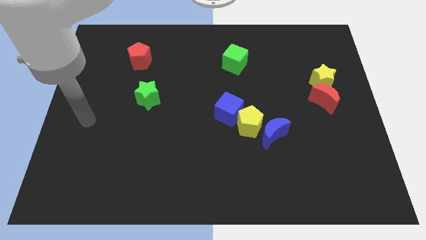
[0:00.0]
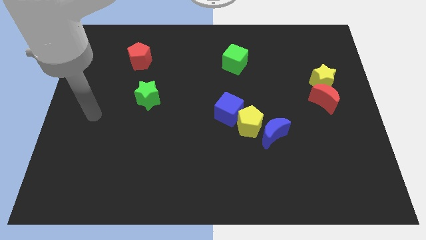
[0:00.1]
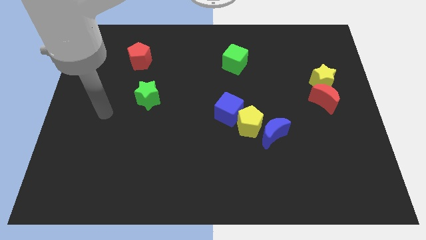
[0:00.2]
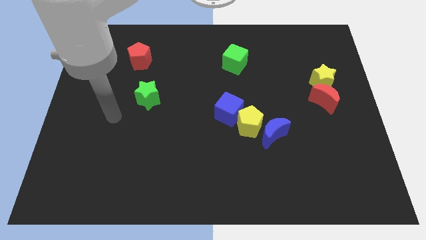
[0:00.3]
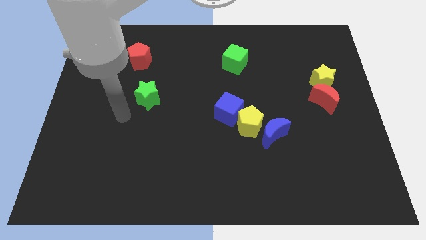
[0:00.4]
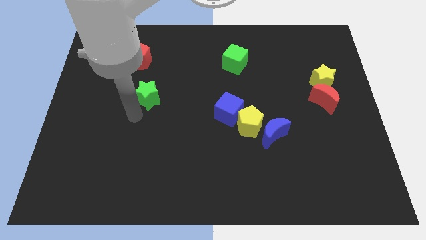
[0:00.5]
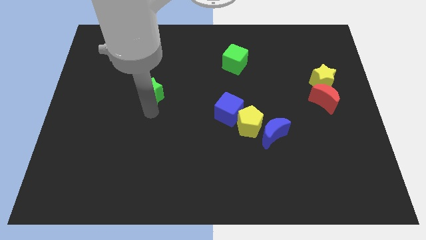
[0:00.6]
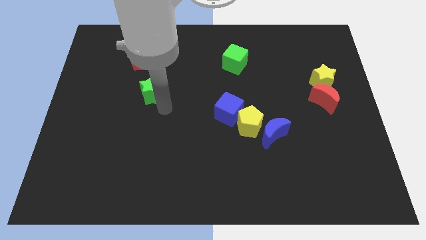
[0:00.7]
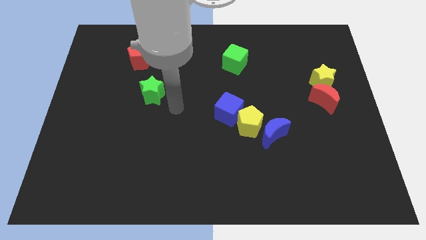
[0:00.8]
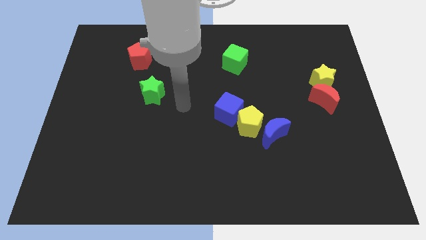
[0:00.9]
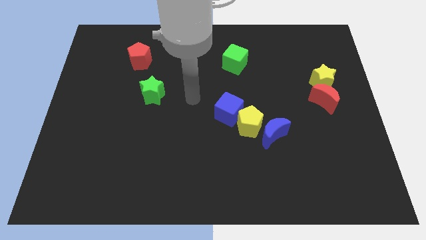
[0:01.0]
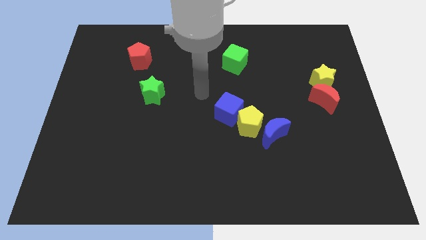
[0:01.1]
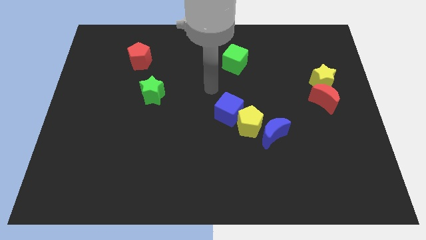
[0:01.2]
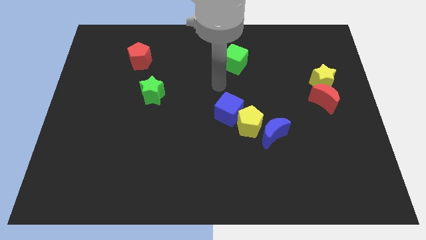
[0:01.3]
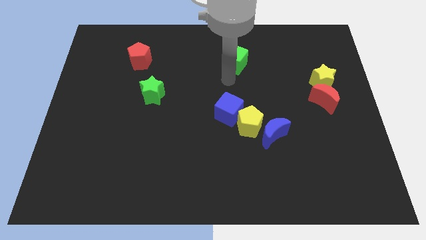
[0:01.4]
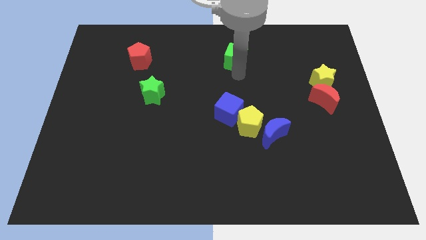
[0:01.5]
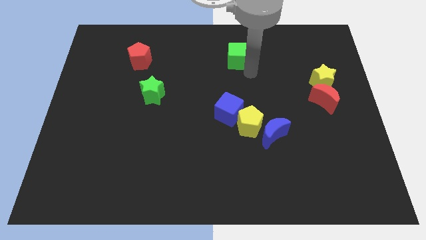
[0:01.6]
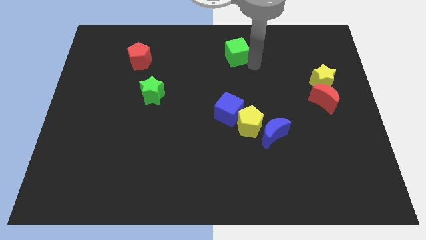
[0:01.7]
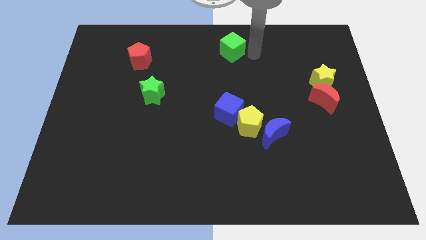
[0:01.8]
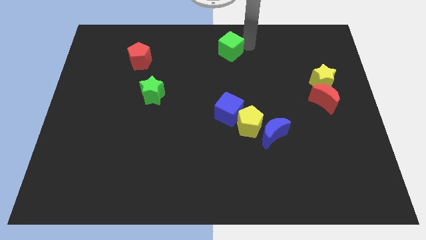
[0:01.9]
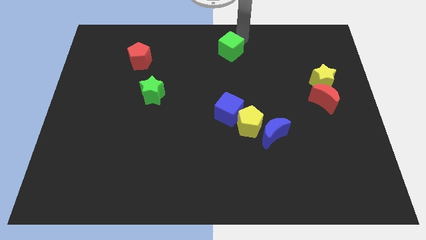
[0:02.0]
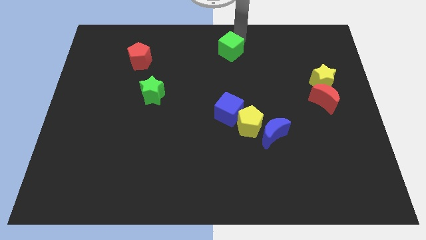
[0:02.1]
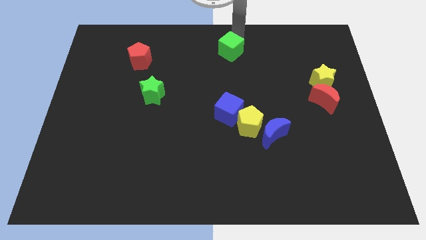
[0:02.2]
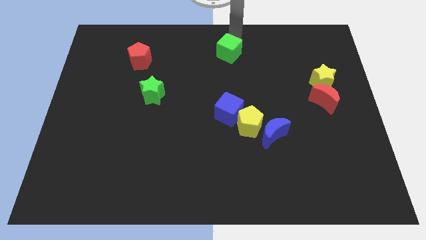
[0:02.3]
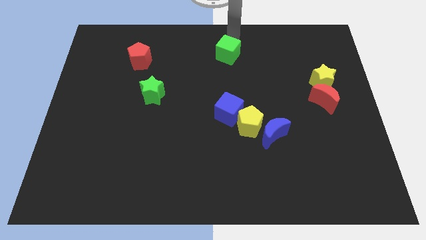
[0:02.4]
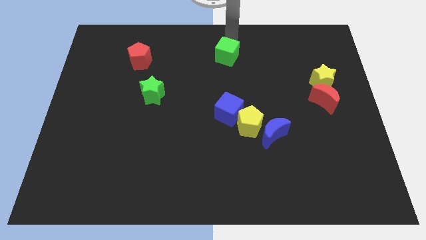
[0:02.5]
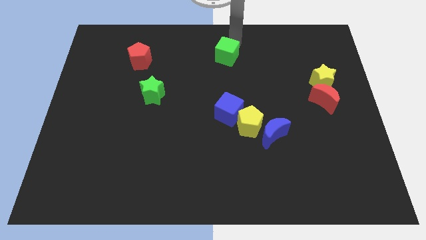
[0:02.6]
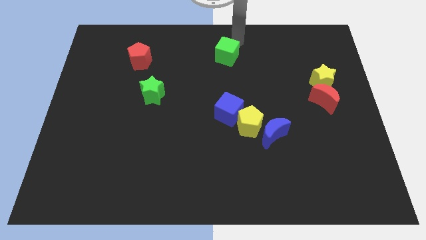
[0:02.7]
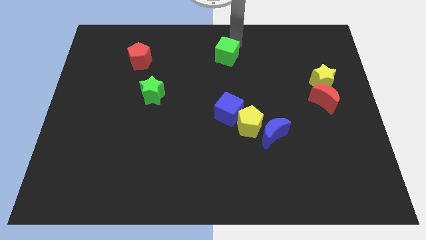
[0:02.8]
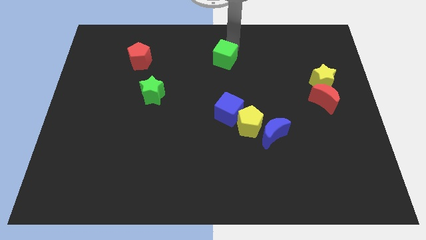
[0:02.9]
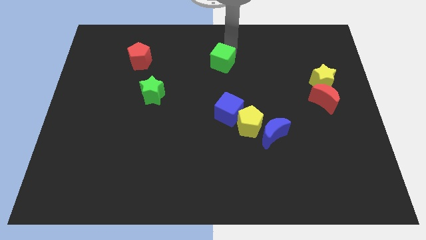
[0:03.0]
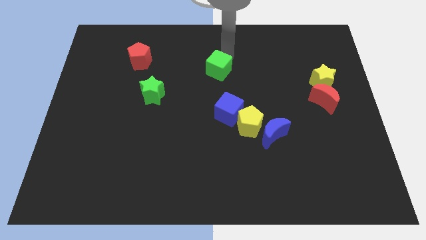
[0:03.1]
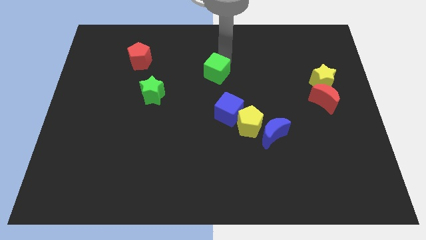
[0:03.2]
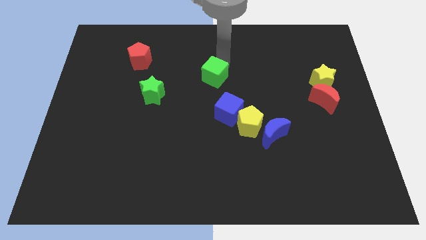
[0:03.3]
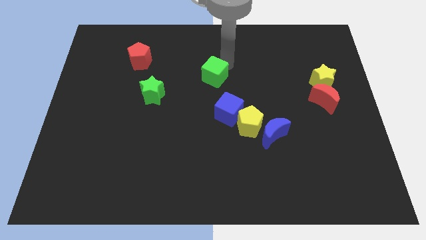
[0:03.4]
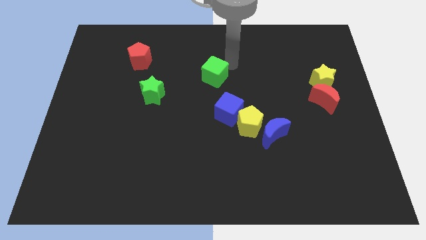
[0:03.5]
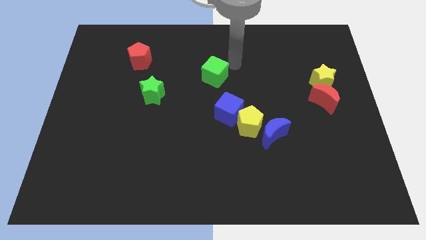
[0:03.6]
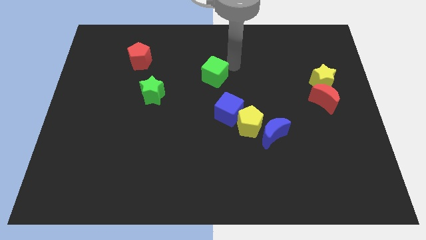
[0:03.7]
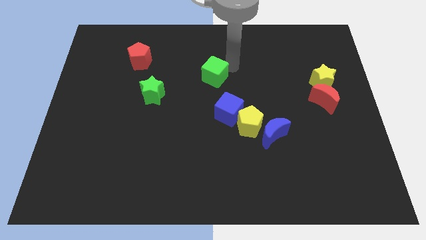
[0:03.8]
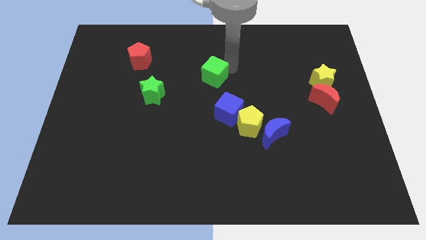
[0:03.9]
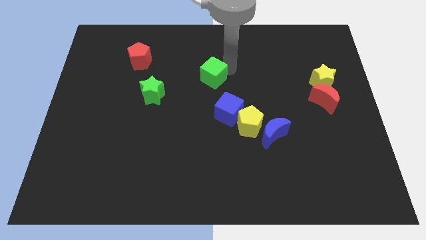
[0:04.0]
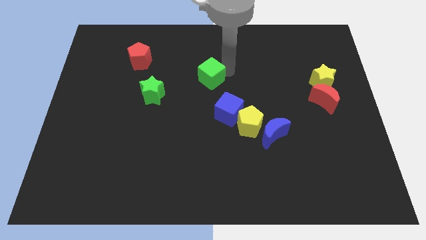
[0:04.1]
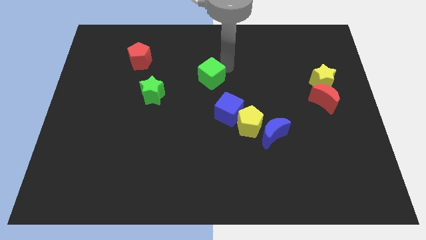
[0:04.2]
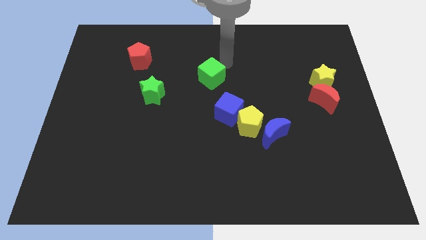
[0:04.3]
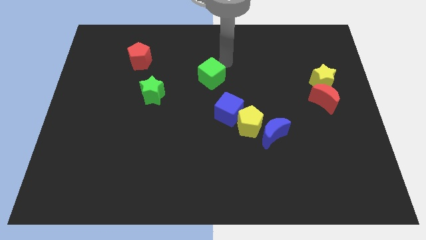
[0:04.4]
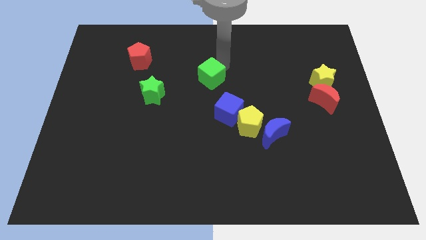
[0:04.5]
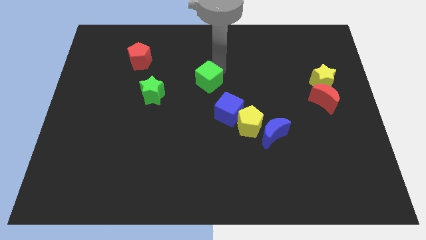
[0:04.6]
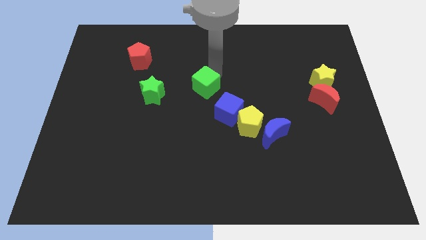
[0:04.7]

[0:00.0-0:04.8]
move the green cube to the right side of the green star

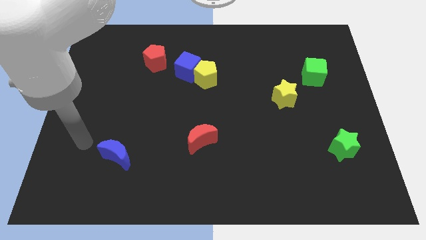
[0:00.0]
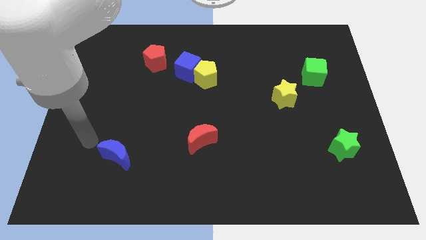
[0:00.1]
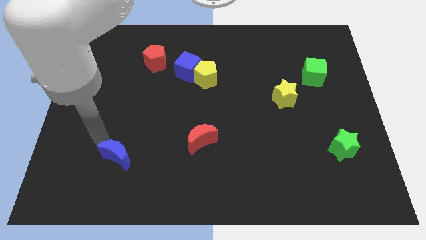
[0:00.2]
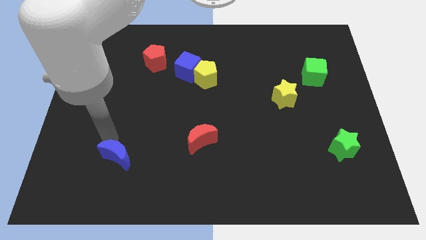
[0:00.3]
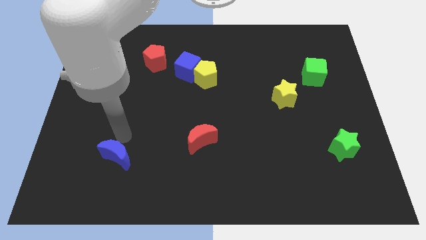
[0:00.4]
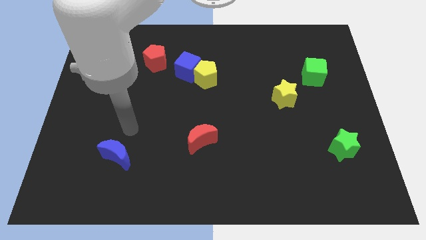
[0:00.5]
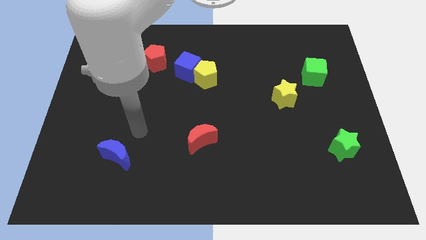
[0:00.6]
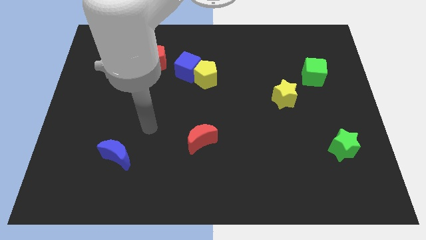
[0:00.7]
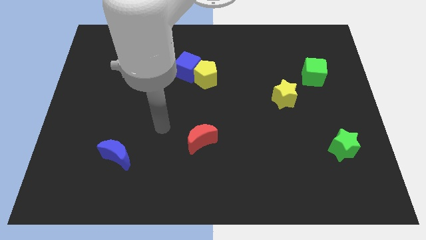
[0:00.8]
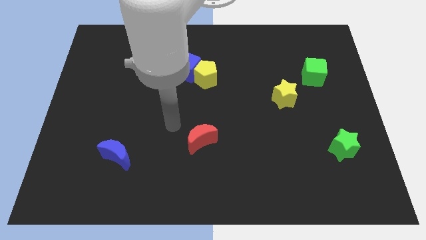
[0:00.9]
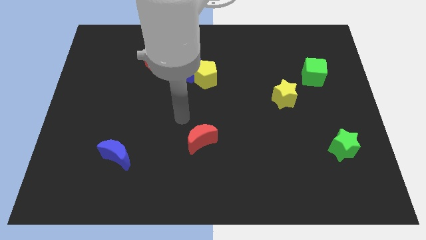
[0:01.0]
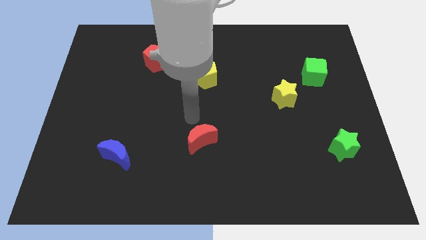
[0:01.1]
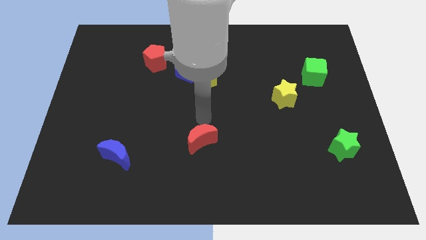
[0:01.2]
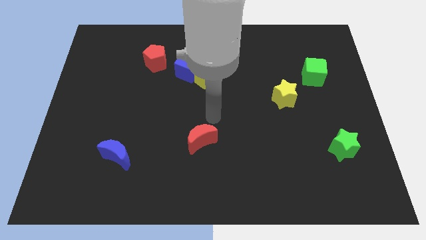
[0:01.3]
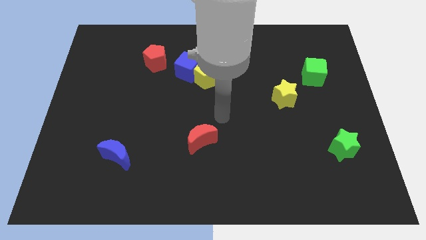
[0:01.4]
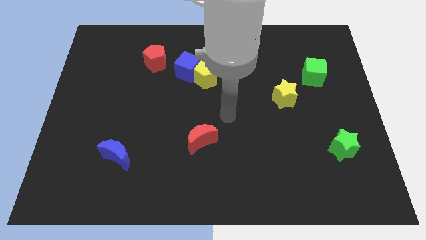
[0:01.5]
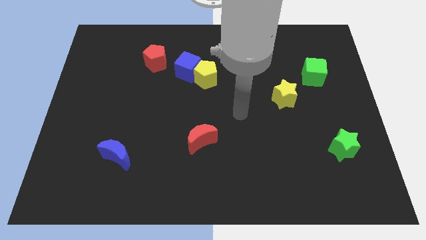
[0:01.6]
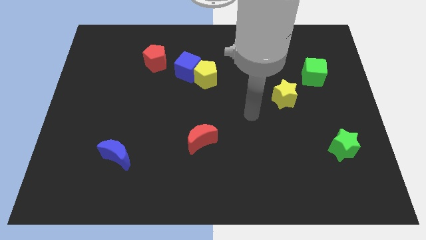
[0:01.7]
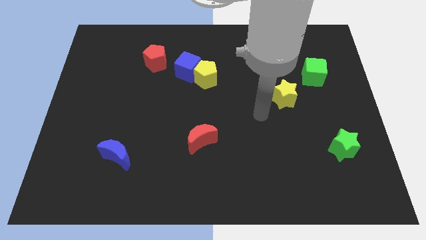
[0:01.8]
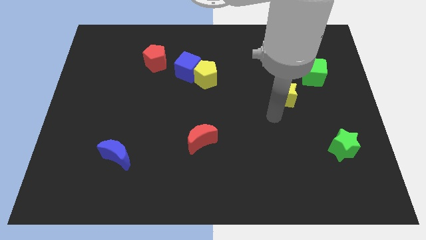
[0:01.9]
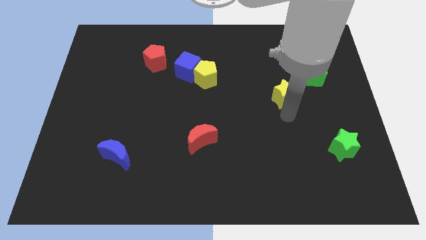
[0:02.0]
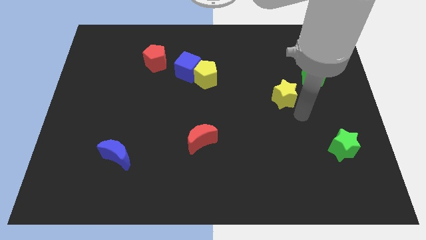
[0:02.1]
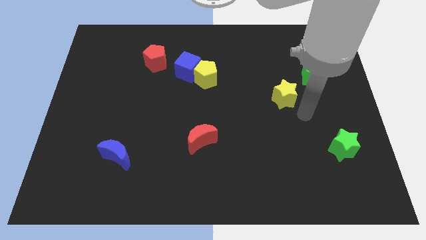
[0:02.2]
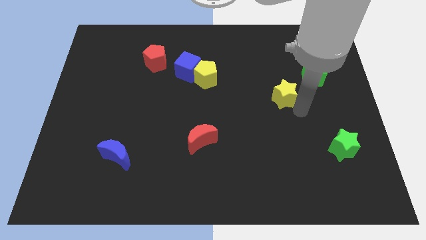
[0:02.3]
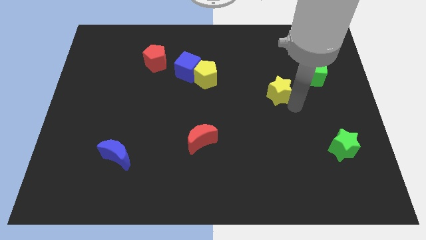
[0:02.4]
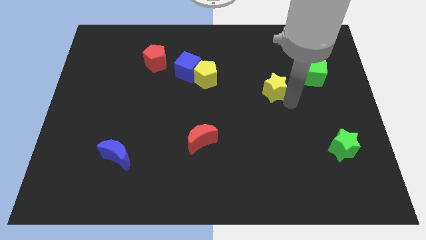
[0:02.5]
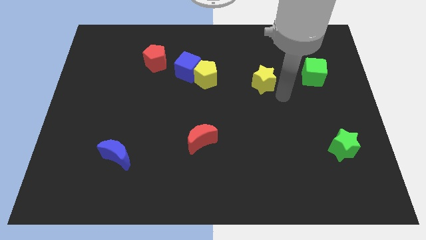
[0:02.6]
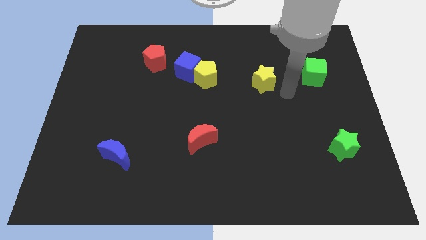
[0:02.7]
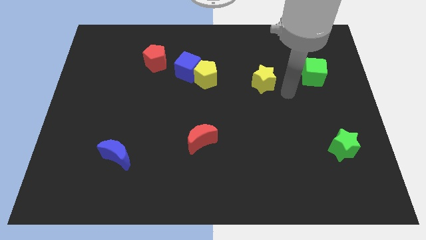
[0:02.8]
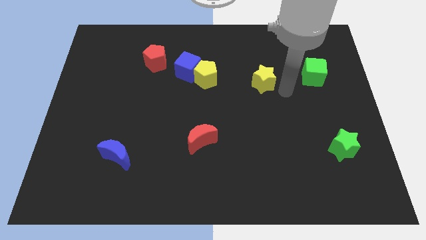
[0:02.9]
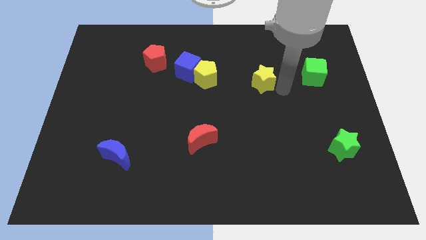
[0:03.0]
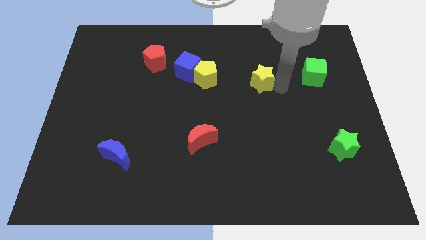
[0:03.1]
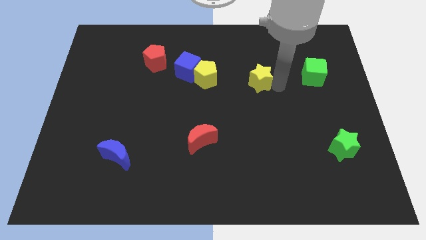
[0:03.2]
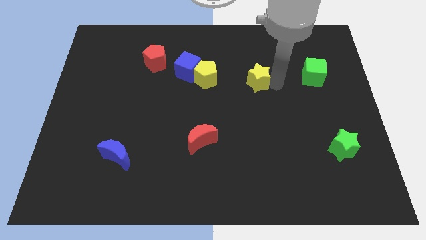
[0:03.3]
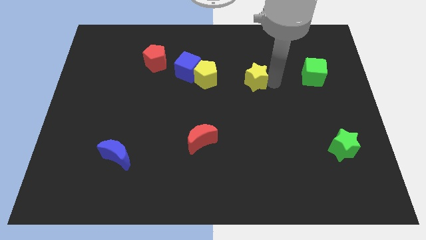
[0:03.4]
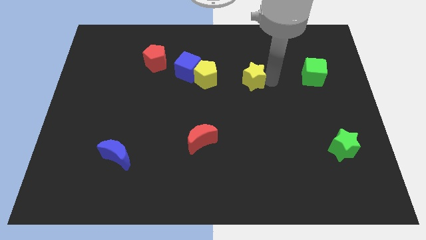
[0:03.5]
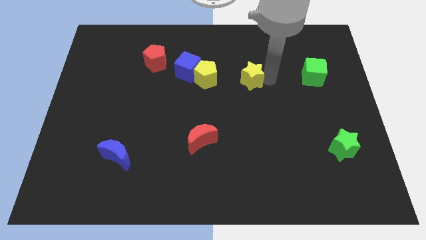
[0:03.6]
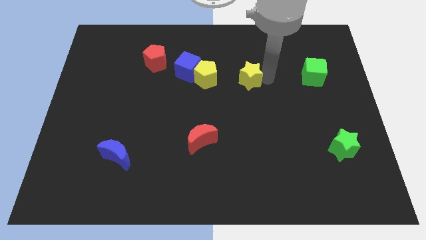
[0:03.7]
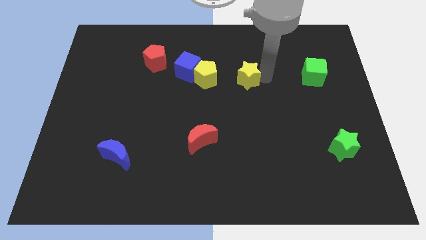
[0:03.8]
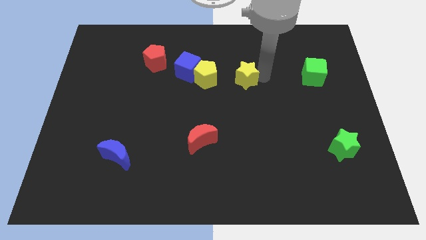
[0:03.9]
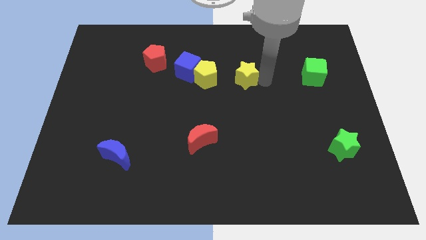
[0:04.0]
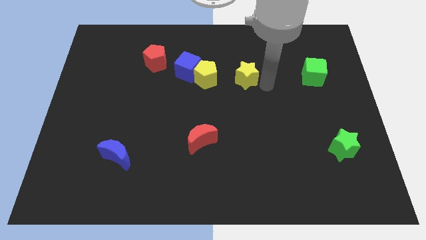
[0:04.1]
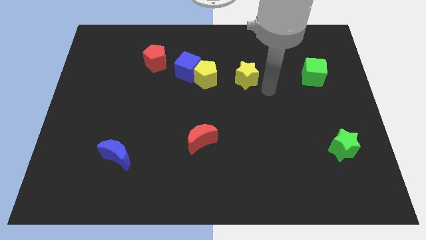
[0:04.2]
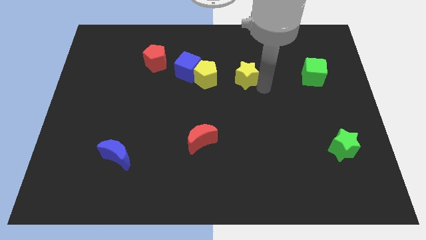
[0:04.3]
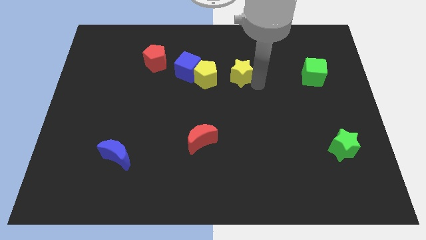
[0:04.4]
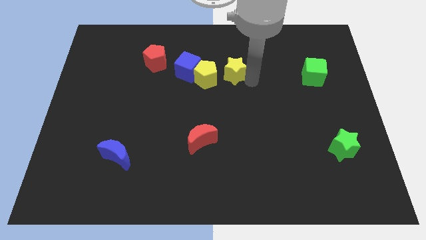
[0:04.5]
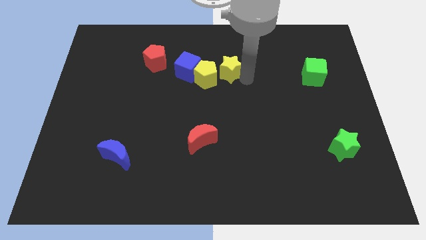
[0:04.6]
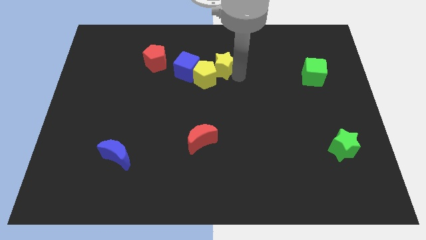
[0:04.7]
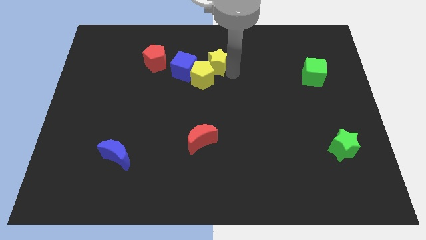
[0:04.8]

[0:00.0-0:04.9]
slide the yellow star to the top right of the blue cube
